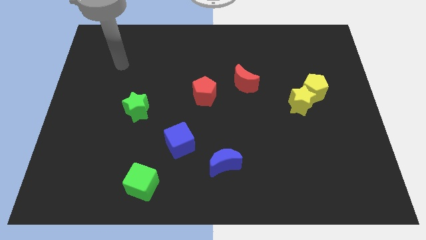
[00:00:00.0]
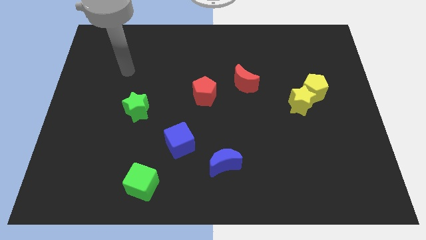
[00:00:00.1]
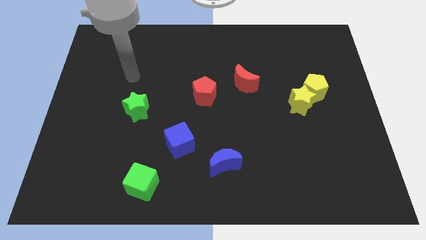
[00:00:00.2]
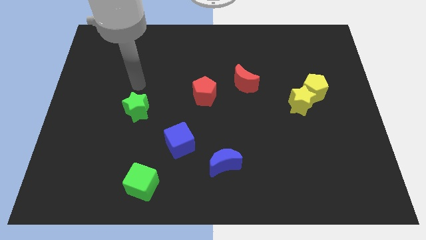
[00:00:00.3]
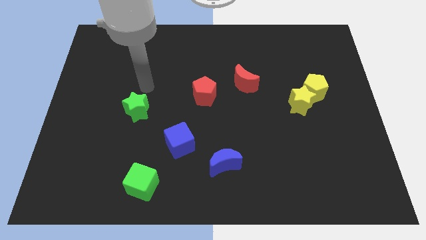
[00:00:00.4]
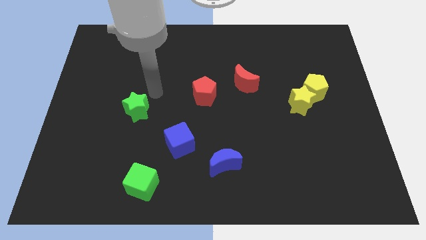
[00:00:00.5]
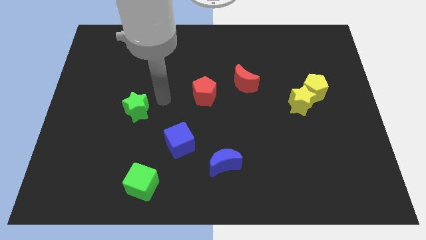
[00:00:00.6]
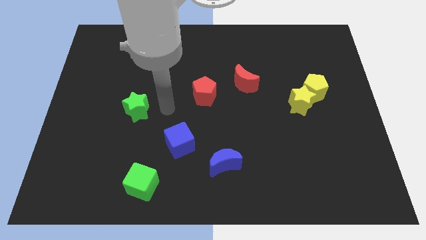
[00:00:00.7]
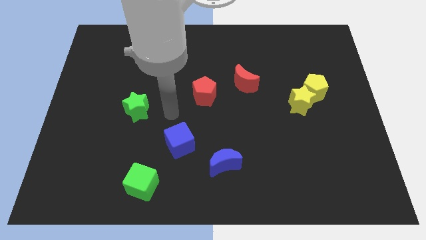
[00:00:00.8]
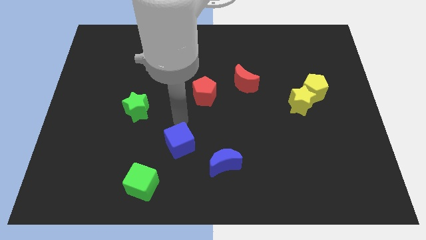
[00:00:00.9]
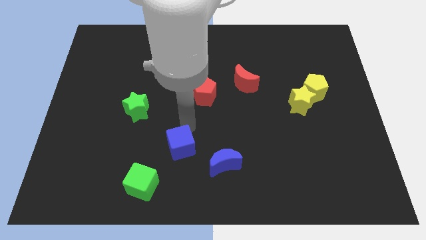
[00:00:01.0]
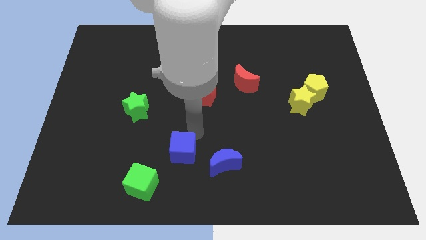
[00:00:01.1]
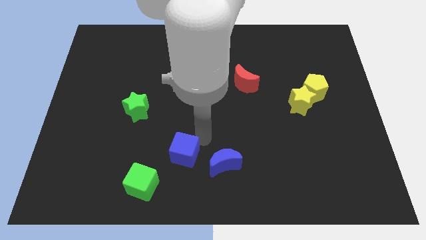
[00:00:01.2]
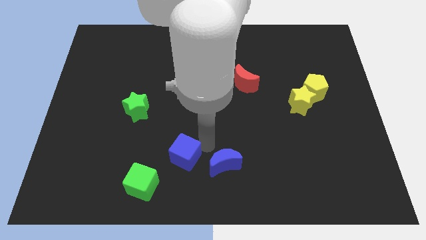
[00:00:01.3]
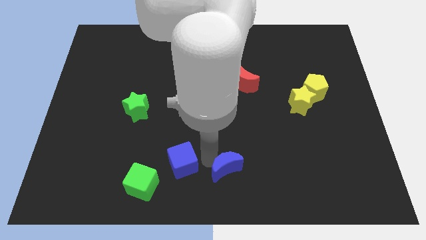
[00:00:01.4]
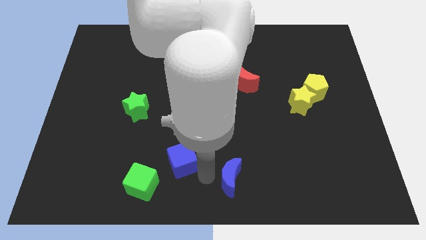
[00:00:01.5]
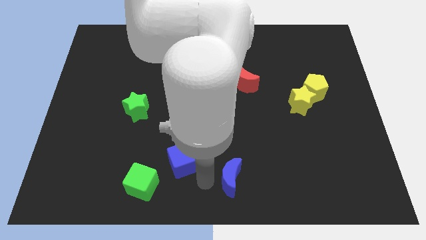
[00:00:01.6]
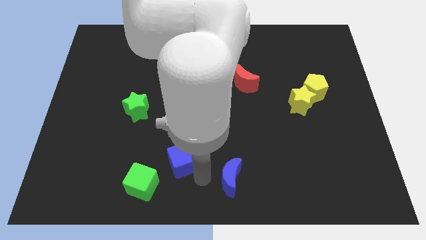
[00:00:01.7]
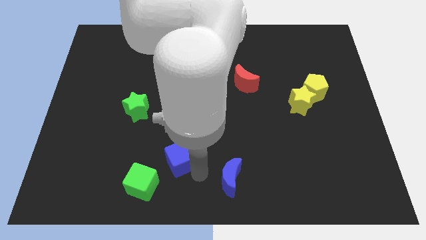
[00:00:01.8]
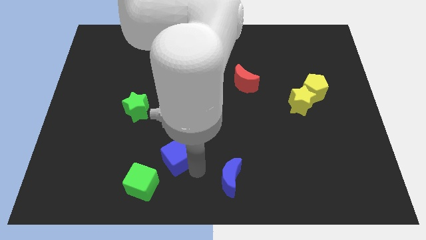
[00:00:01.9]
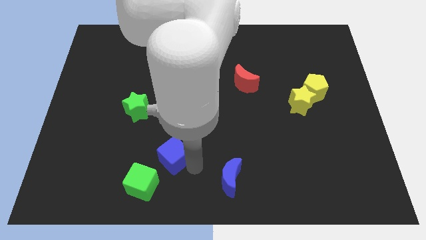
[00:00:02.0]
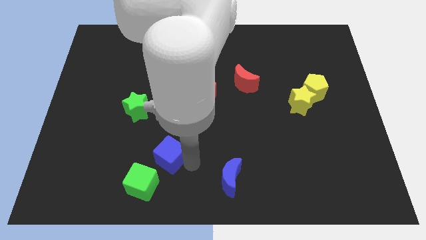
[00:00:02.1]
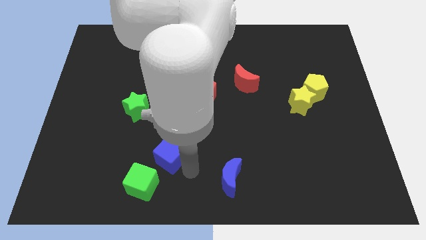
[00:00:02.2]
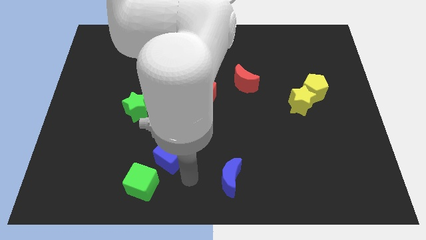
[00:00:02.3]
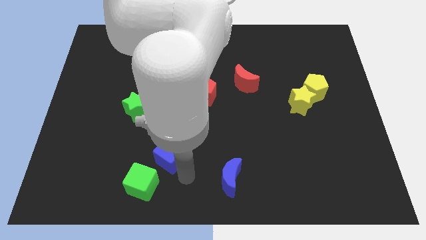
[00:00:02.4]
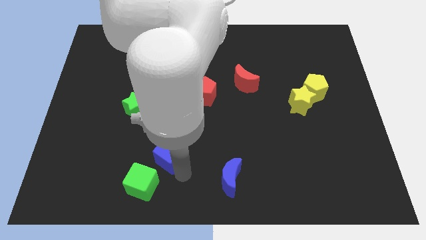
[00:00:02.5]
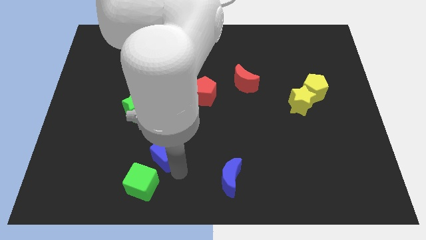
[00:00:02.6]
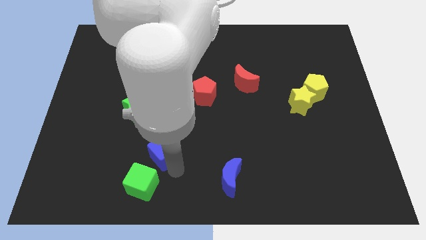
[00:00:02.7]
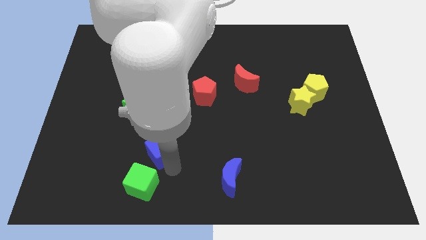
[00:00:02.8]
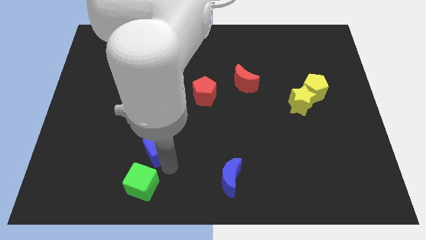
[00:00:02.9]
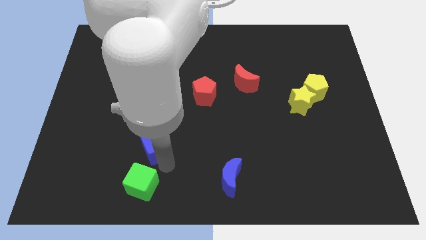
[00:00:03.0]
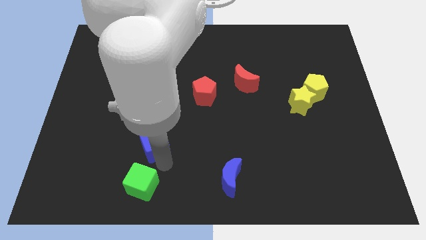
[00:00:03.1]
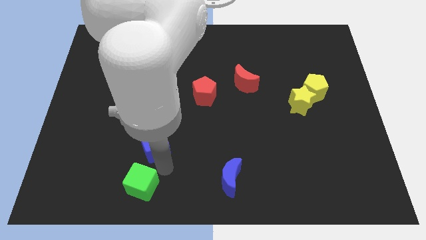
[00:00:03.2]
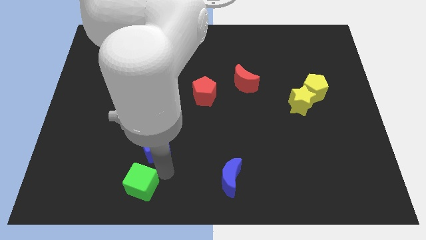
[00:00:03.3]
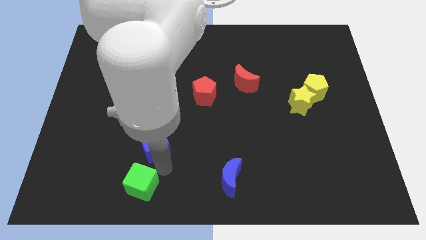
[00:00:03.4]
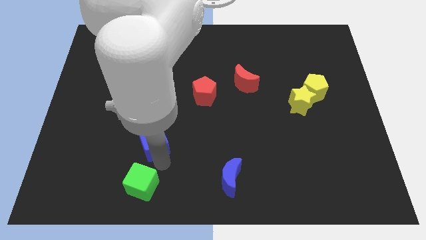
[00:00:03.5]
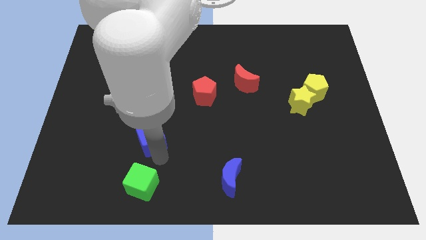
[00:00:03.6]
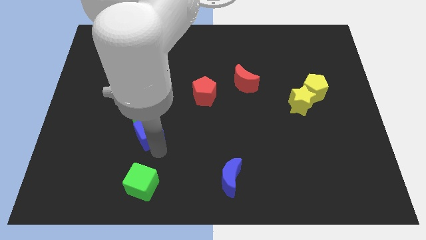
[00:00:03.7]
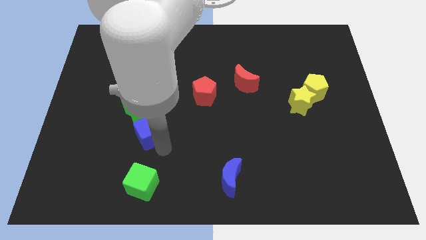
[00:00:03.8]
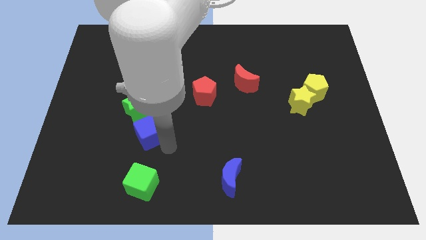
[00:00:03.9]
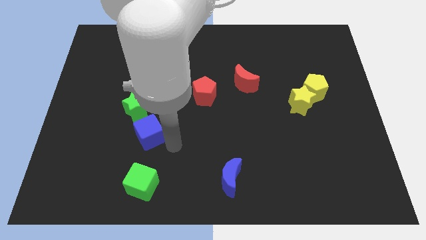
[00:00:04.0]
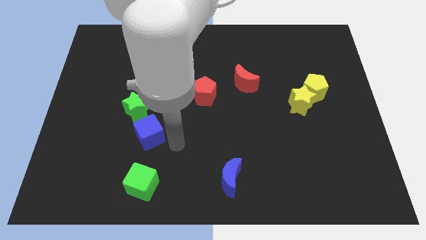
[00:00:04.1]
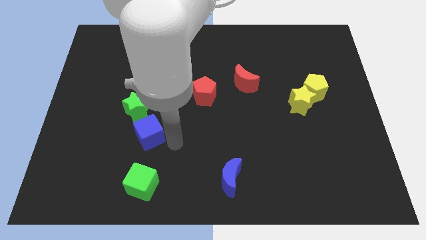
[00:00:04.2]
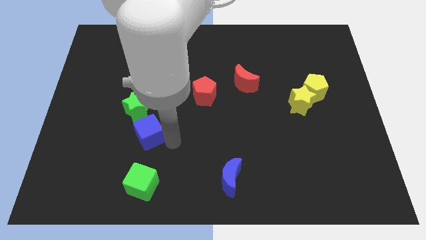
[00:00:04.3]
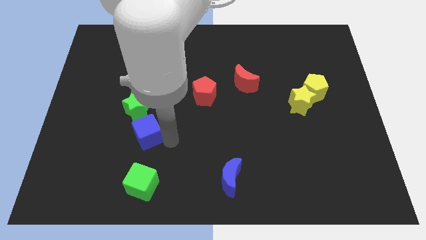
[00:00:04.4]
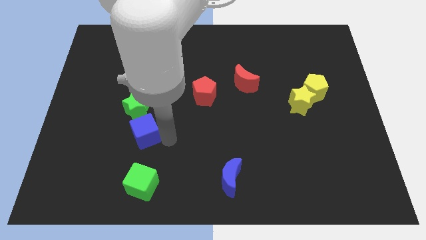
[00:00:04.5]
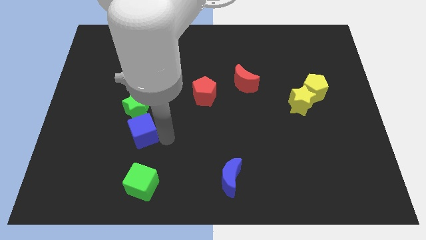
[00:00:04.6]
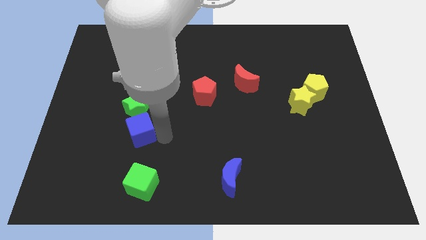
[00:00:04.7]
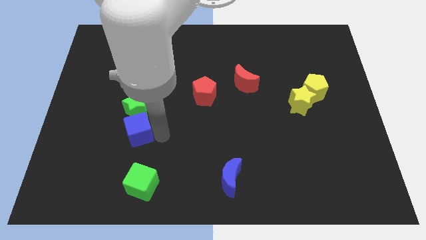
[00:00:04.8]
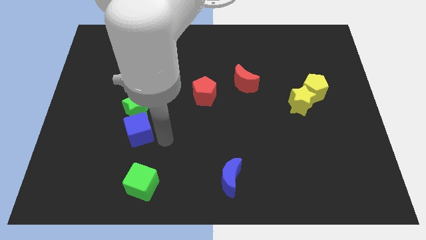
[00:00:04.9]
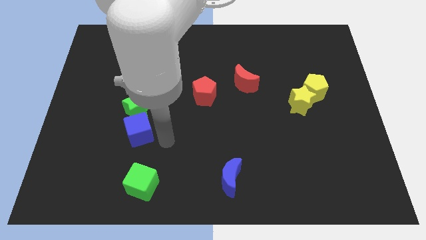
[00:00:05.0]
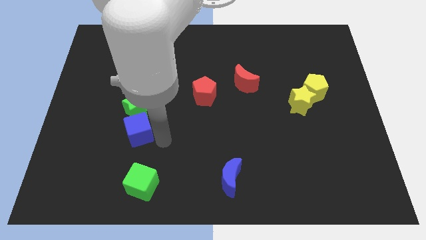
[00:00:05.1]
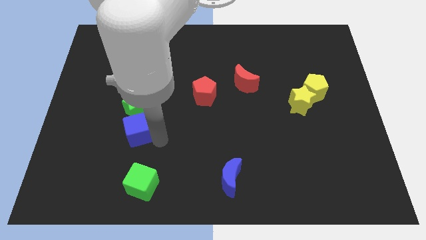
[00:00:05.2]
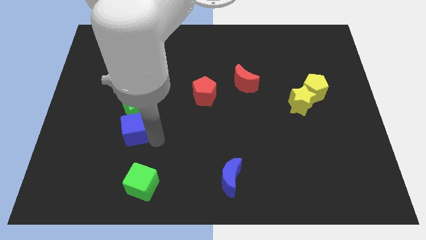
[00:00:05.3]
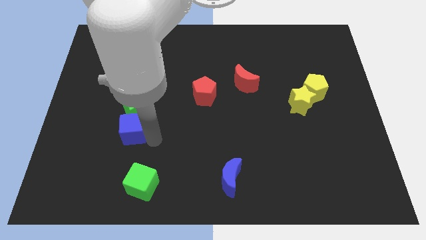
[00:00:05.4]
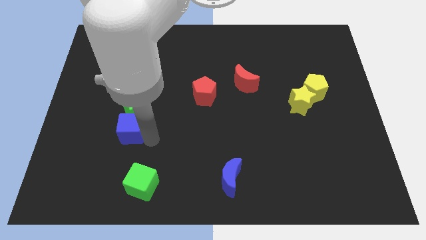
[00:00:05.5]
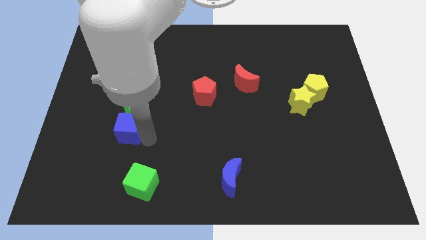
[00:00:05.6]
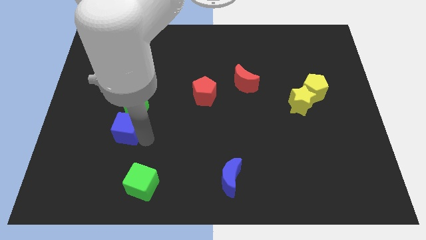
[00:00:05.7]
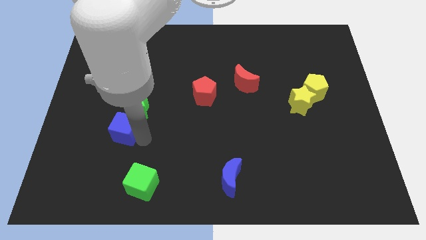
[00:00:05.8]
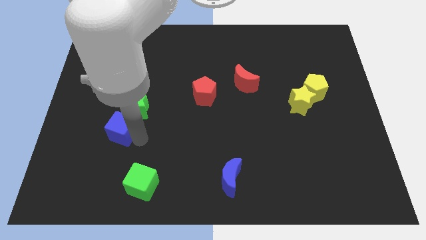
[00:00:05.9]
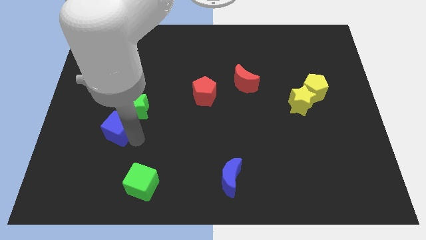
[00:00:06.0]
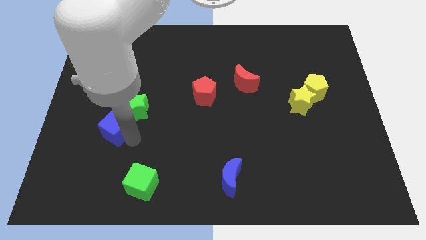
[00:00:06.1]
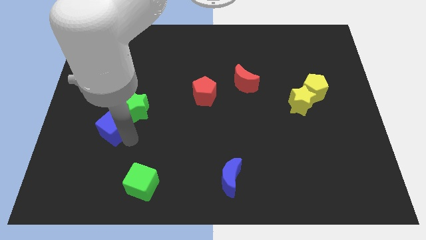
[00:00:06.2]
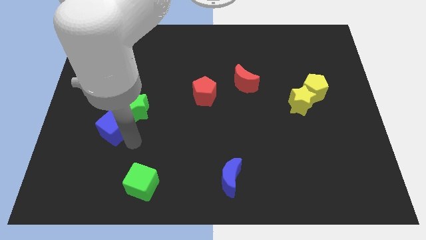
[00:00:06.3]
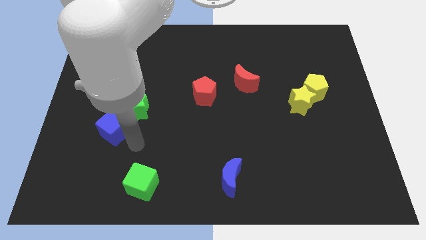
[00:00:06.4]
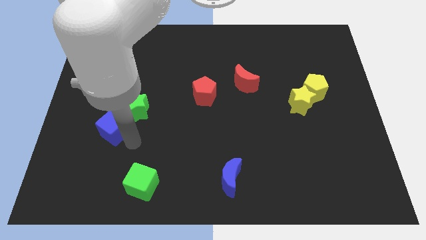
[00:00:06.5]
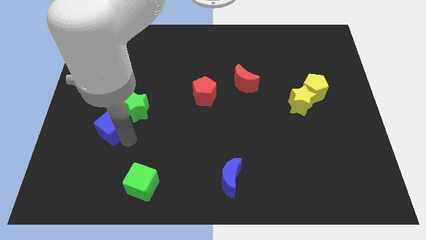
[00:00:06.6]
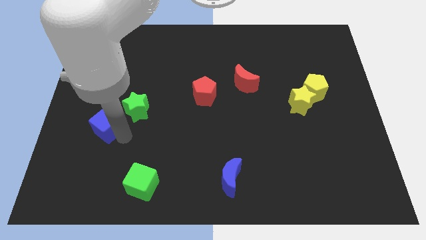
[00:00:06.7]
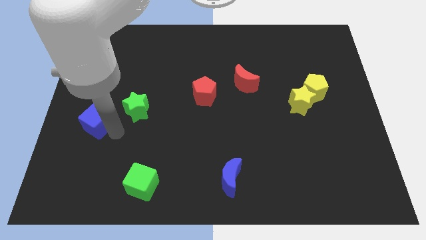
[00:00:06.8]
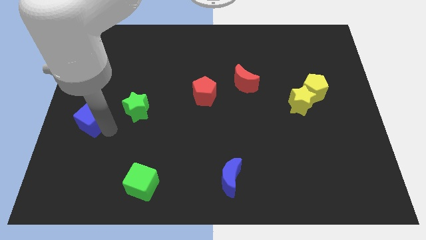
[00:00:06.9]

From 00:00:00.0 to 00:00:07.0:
push the blue cube to the left side of the board
